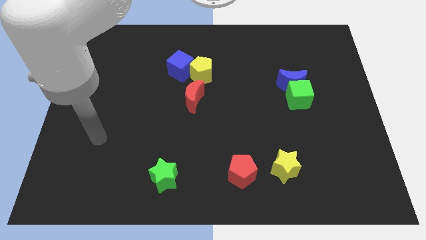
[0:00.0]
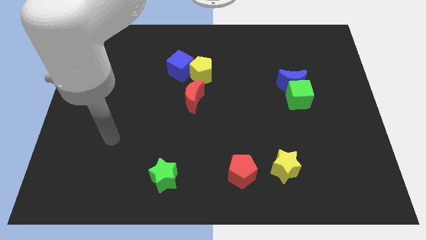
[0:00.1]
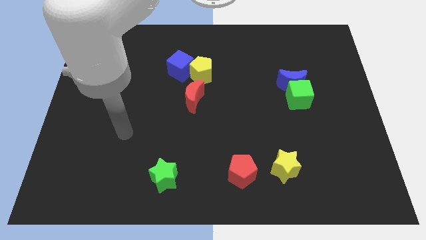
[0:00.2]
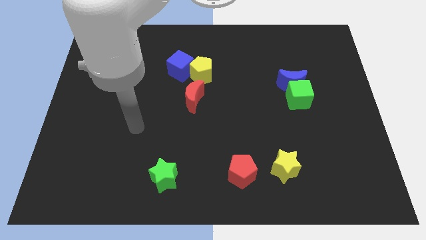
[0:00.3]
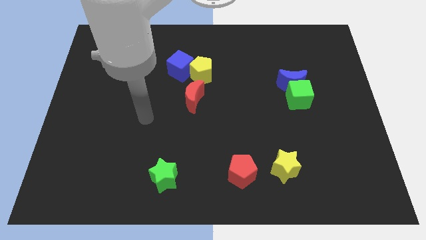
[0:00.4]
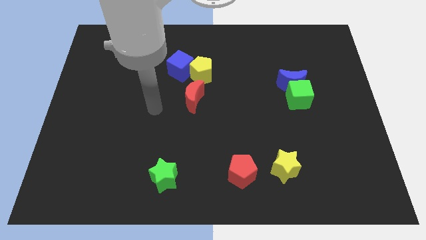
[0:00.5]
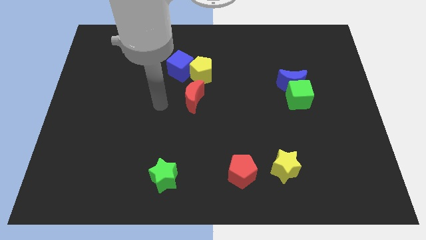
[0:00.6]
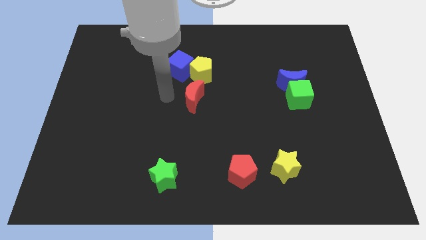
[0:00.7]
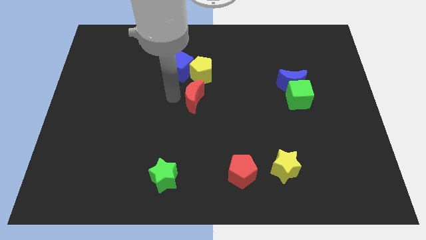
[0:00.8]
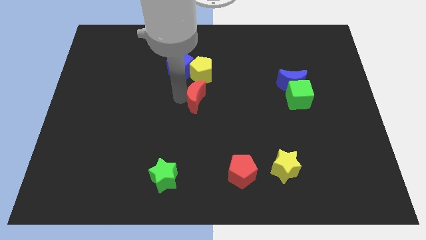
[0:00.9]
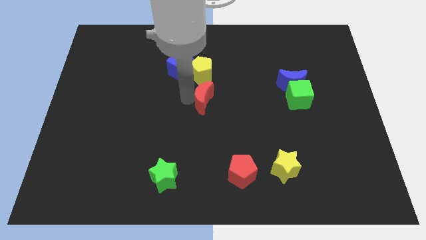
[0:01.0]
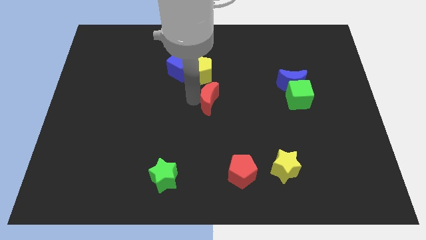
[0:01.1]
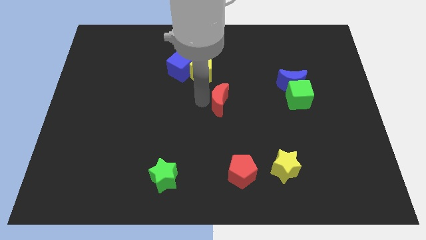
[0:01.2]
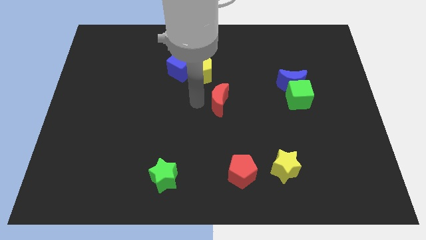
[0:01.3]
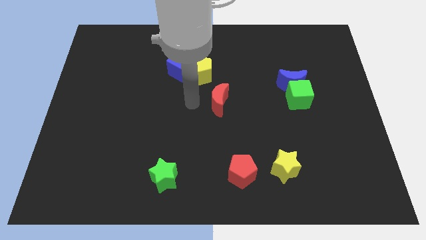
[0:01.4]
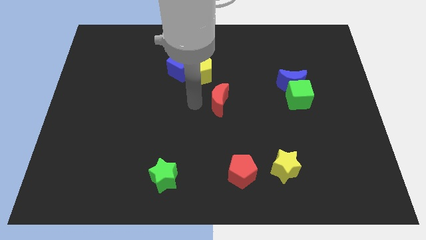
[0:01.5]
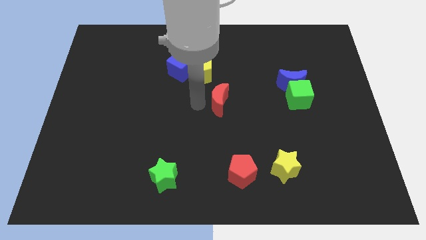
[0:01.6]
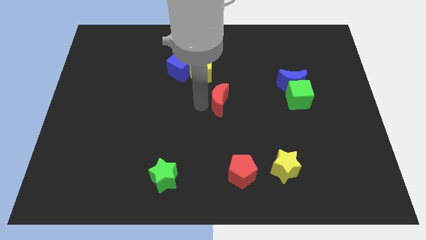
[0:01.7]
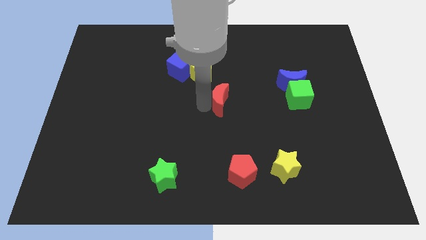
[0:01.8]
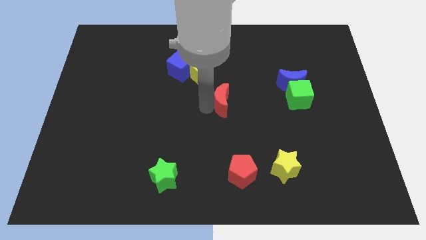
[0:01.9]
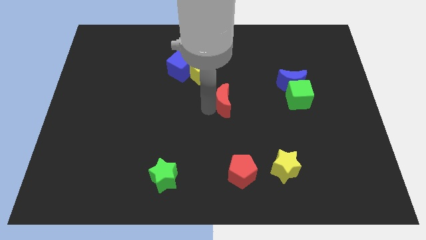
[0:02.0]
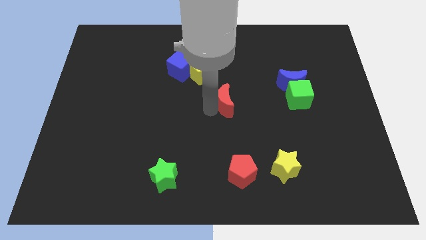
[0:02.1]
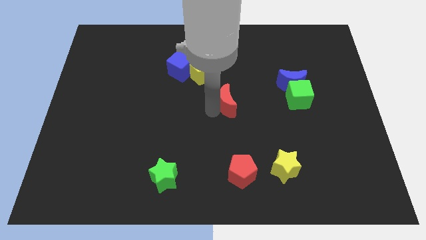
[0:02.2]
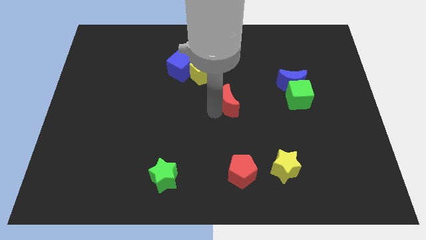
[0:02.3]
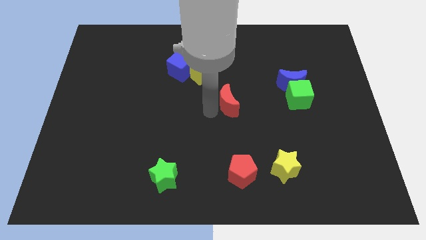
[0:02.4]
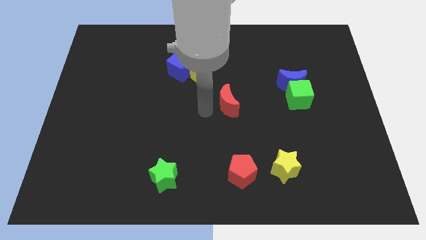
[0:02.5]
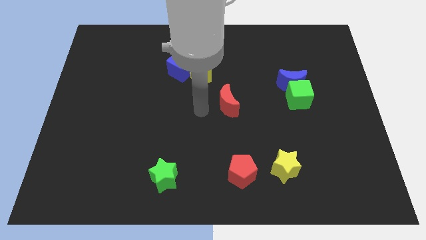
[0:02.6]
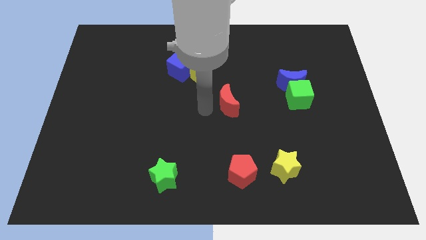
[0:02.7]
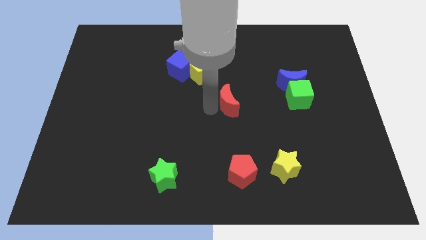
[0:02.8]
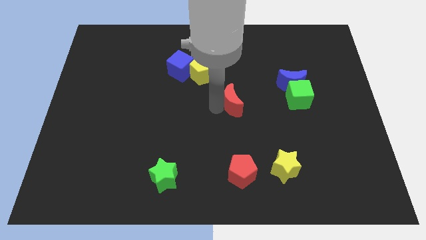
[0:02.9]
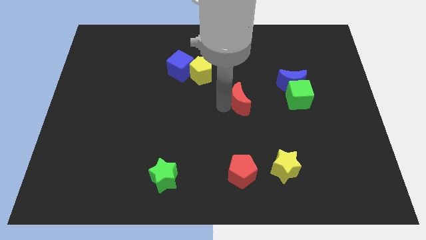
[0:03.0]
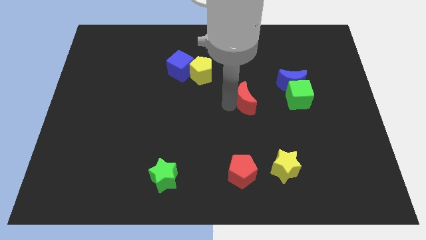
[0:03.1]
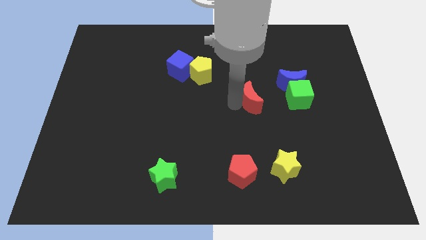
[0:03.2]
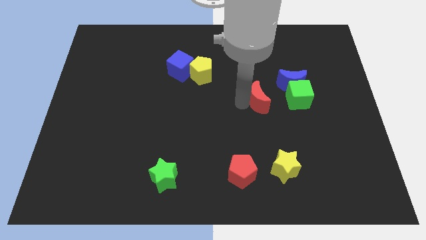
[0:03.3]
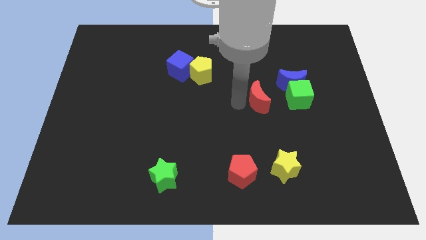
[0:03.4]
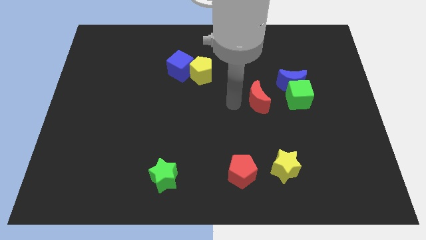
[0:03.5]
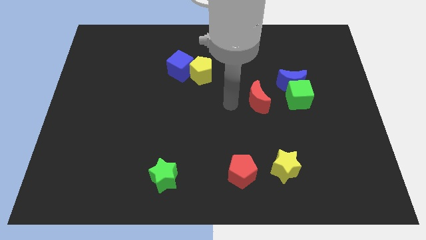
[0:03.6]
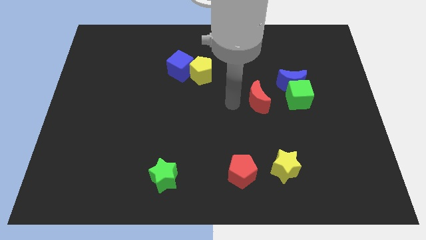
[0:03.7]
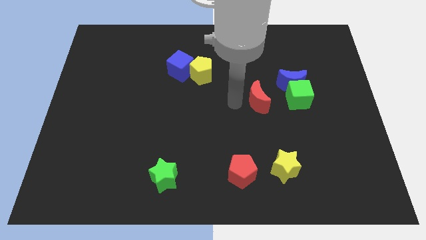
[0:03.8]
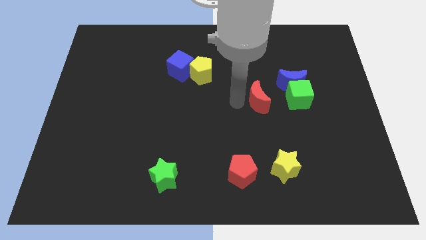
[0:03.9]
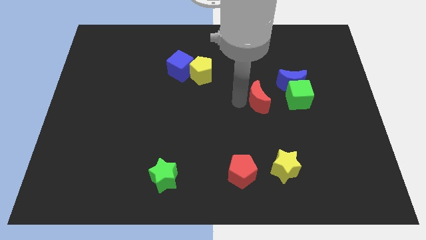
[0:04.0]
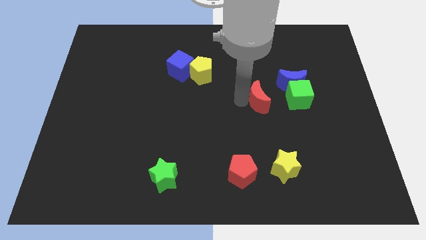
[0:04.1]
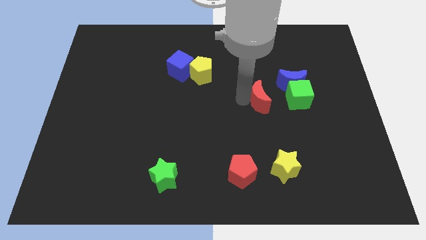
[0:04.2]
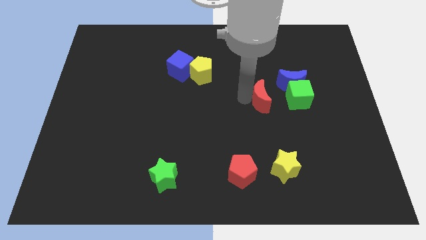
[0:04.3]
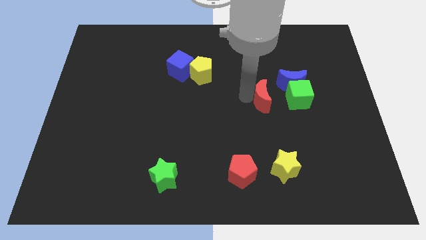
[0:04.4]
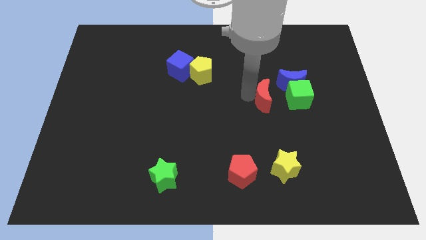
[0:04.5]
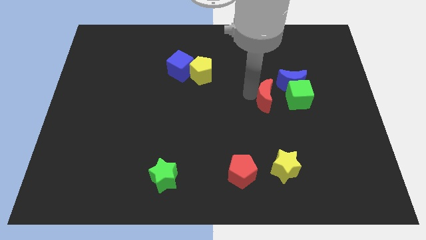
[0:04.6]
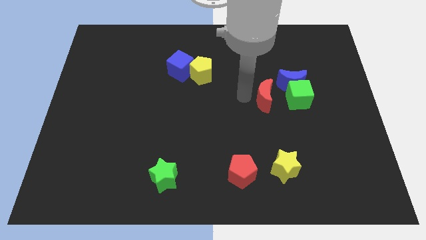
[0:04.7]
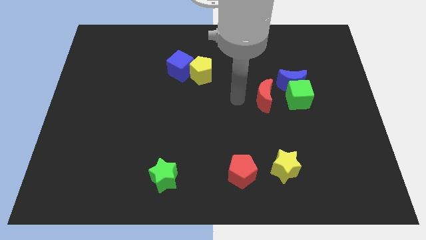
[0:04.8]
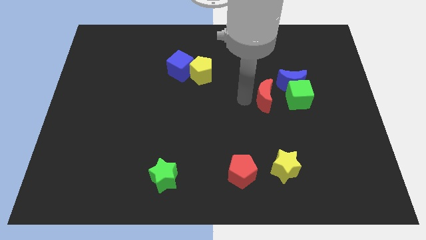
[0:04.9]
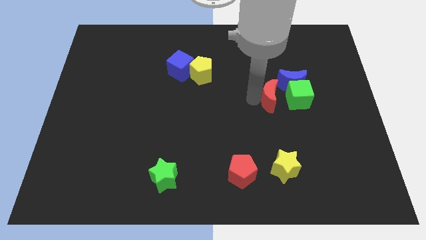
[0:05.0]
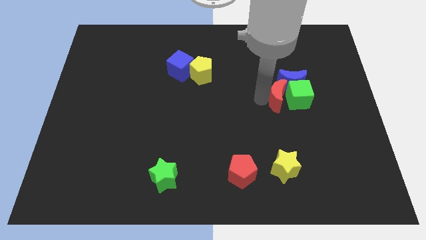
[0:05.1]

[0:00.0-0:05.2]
slide the red moon towards the green cube

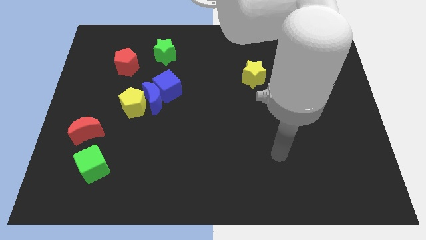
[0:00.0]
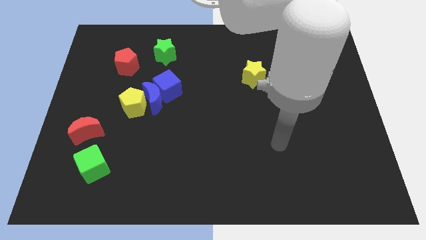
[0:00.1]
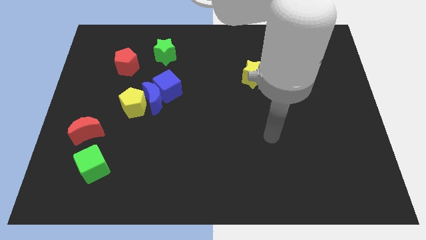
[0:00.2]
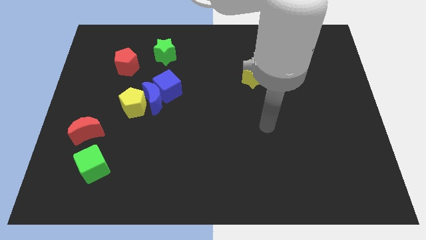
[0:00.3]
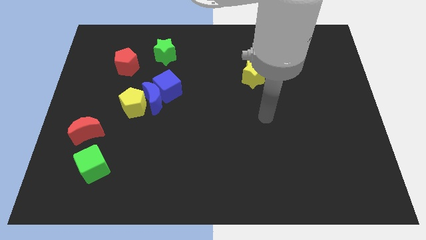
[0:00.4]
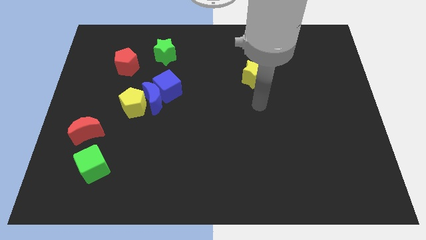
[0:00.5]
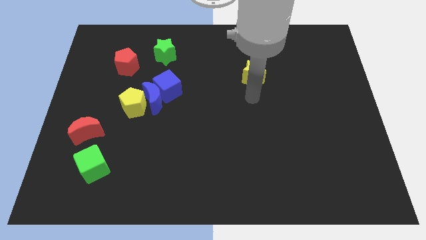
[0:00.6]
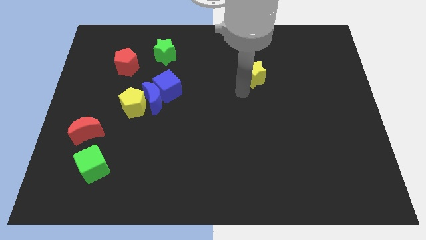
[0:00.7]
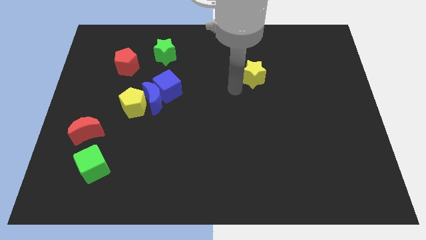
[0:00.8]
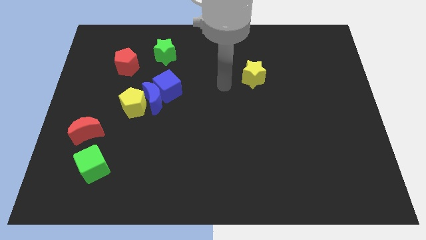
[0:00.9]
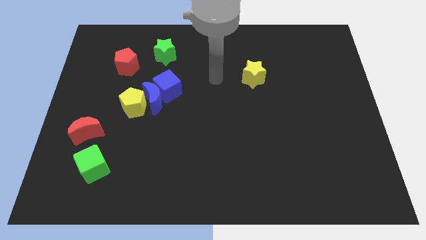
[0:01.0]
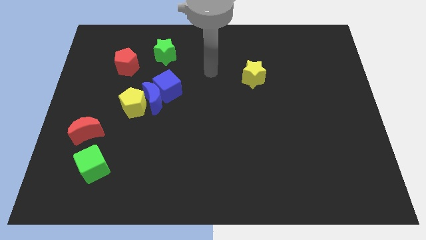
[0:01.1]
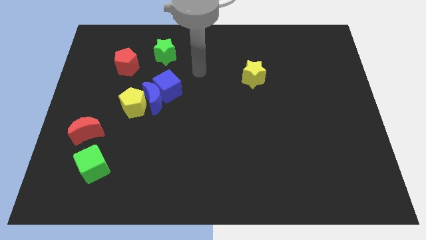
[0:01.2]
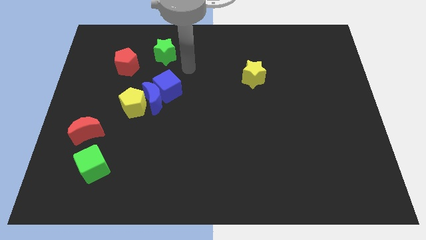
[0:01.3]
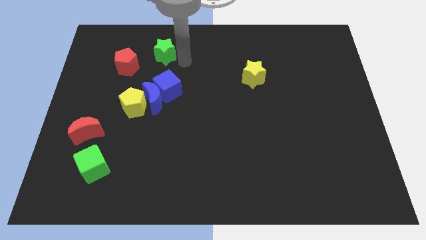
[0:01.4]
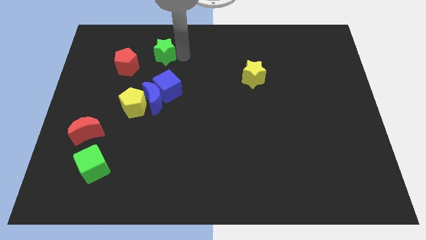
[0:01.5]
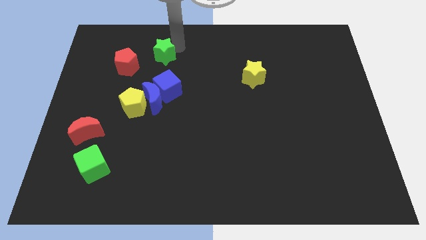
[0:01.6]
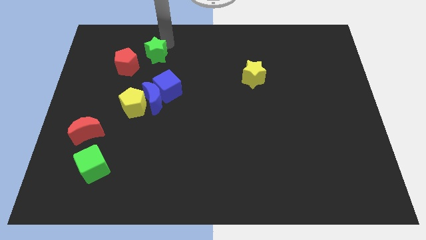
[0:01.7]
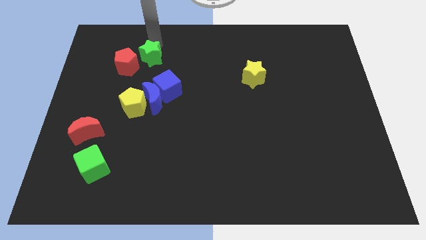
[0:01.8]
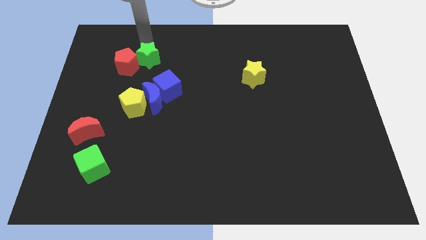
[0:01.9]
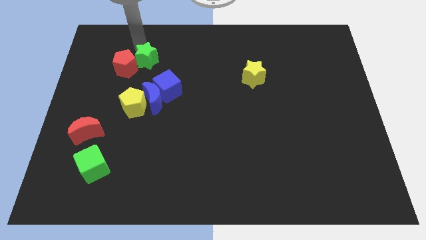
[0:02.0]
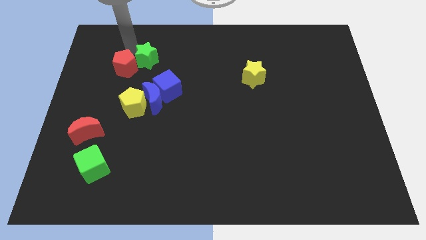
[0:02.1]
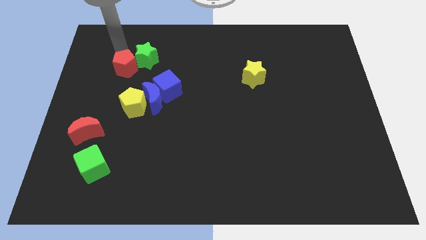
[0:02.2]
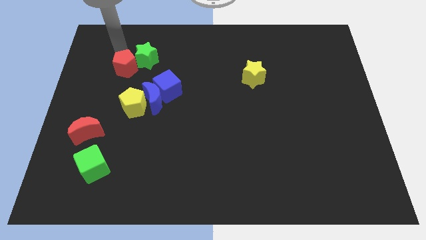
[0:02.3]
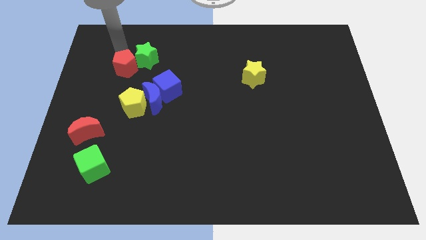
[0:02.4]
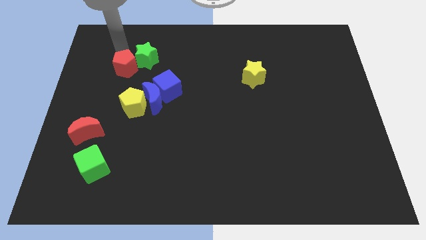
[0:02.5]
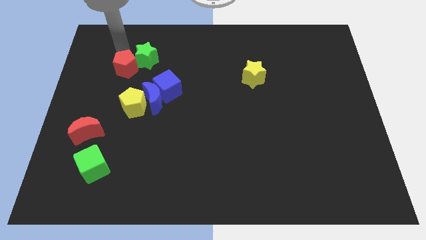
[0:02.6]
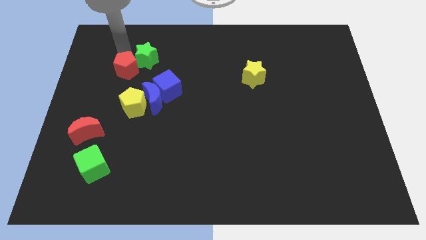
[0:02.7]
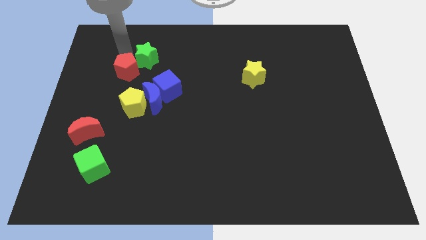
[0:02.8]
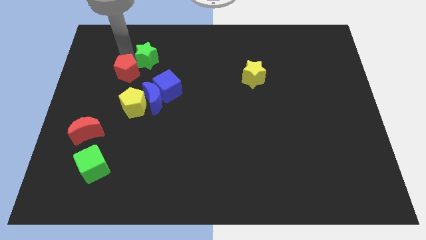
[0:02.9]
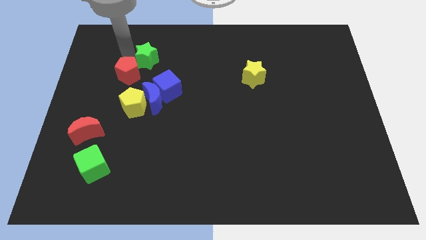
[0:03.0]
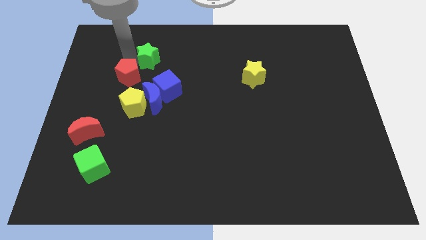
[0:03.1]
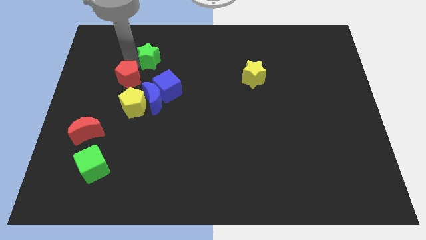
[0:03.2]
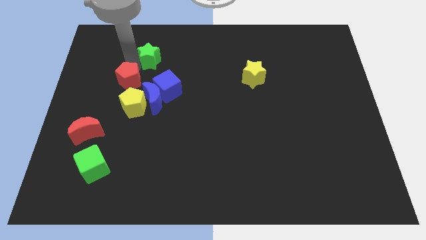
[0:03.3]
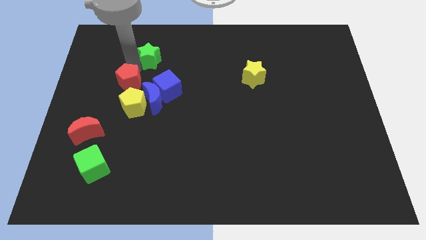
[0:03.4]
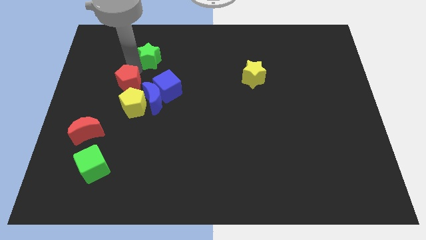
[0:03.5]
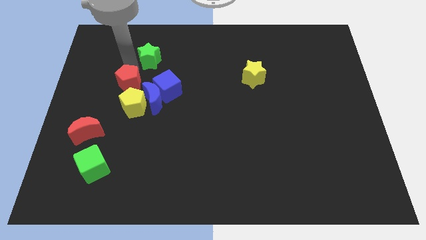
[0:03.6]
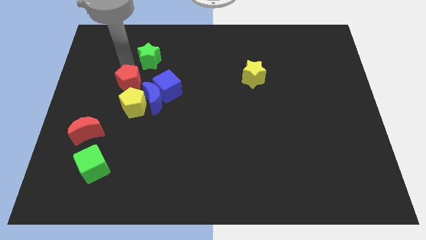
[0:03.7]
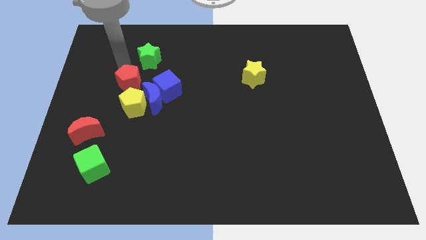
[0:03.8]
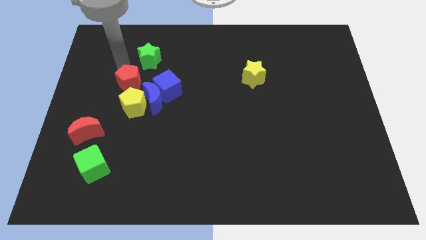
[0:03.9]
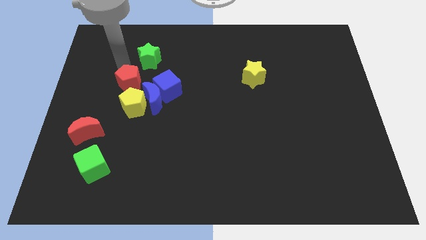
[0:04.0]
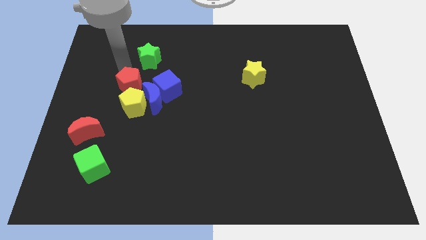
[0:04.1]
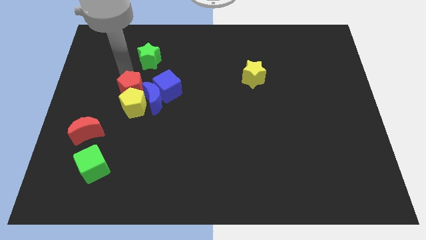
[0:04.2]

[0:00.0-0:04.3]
slide the red pentagon close to the yellow pentagon
